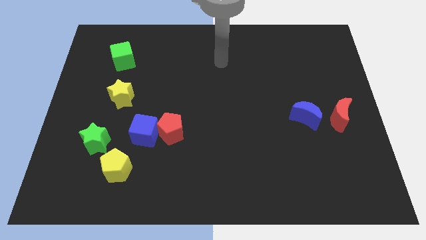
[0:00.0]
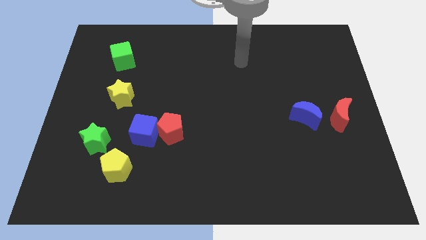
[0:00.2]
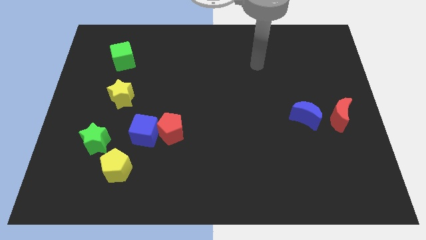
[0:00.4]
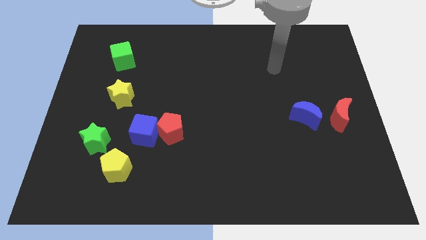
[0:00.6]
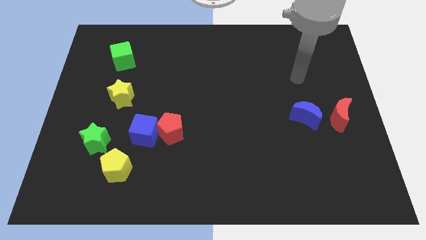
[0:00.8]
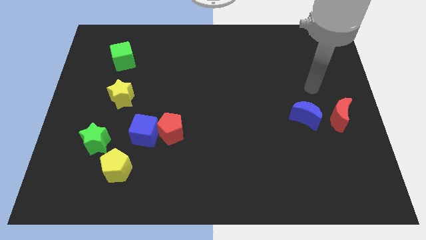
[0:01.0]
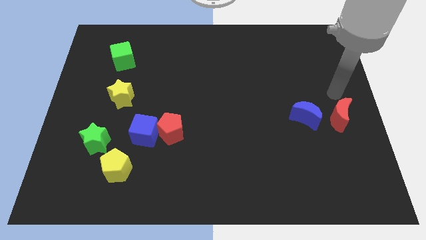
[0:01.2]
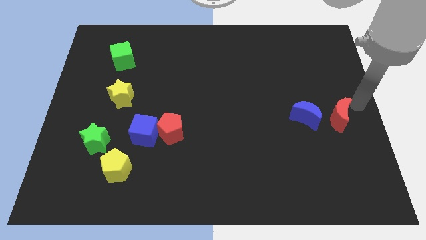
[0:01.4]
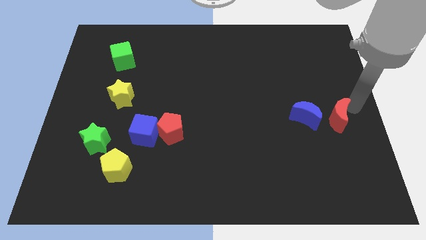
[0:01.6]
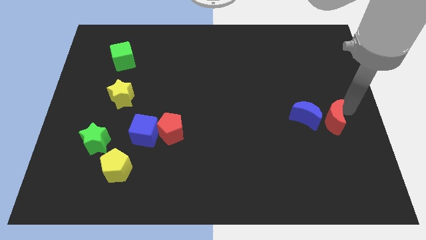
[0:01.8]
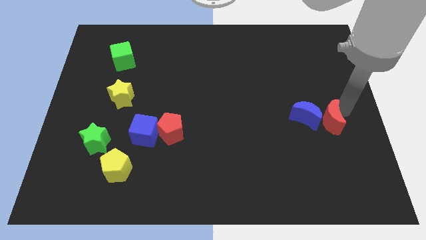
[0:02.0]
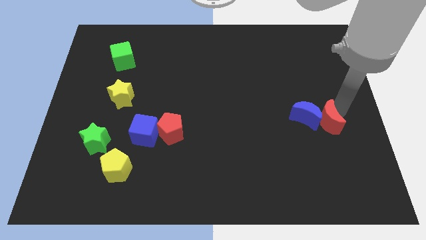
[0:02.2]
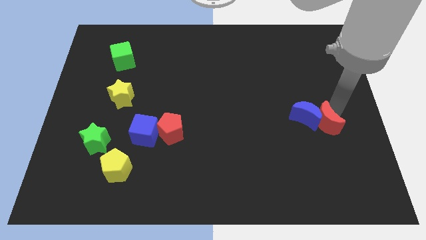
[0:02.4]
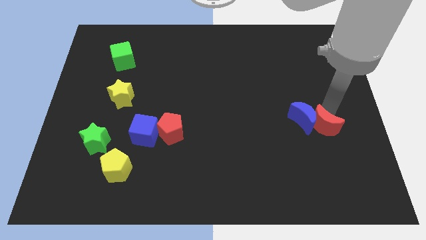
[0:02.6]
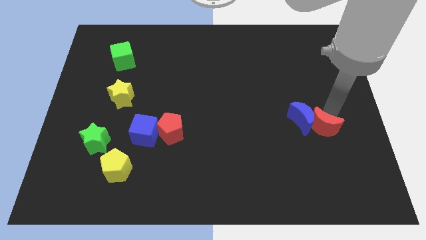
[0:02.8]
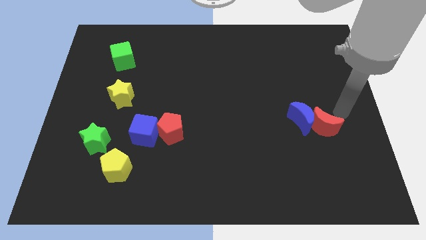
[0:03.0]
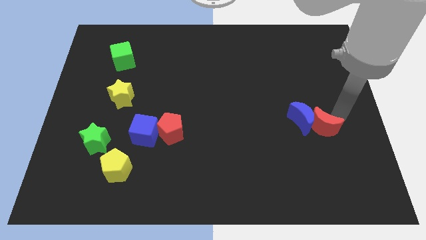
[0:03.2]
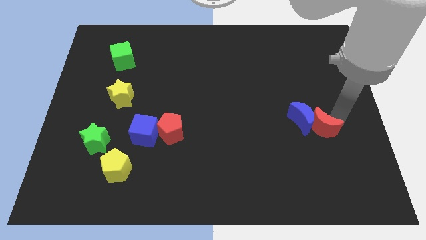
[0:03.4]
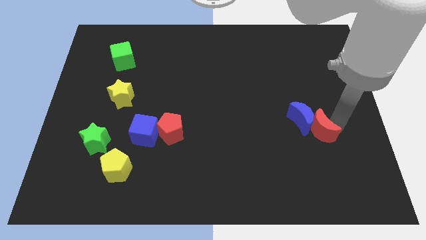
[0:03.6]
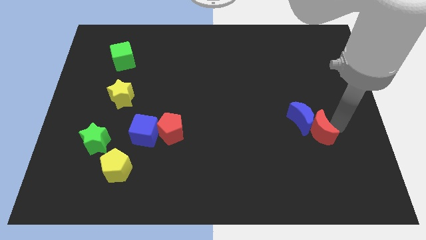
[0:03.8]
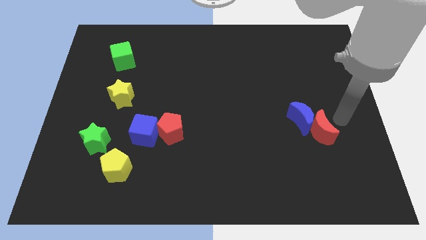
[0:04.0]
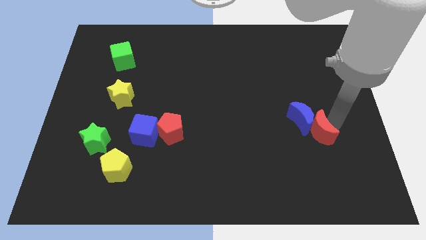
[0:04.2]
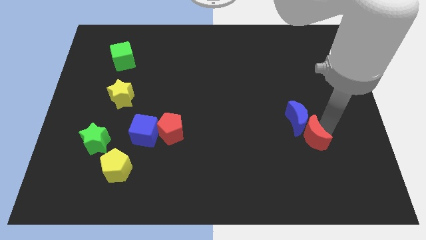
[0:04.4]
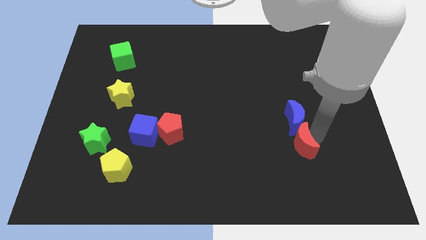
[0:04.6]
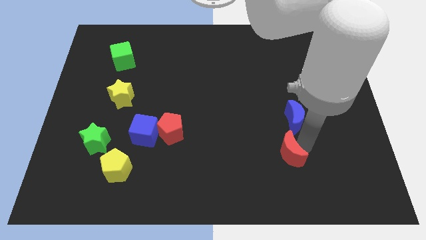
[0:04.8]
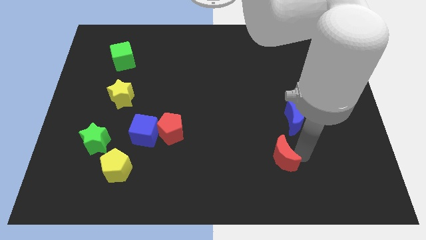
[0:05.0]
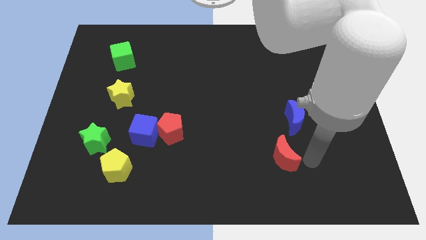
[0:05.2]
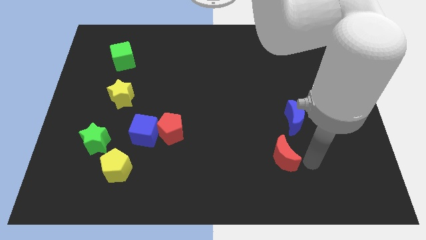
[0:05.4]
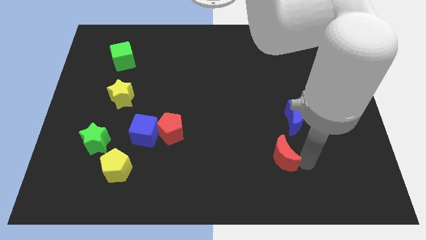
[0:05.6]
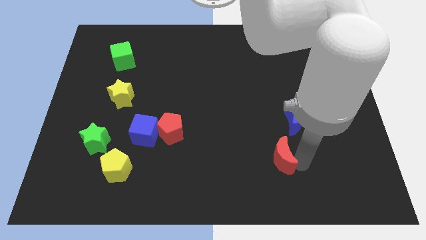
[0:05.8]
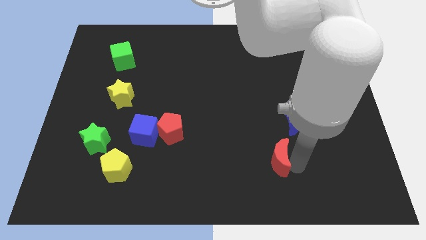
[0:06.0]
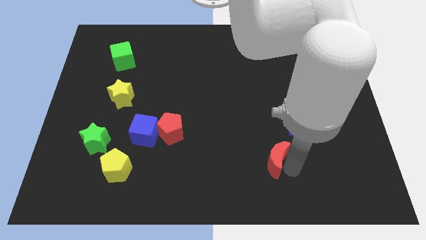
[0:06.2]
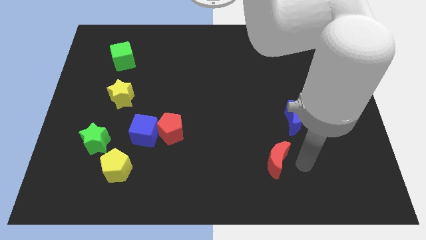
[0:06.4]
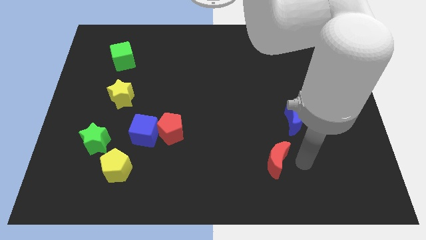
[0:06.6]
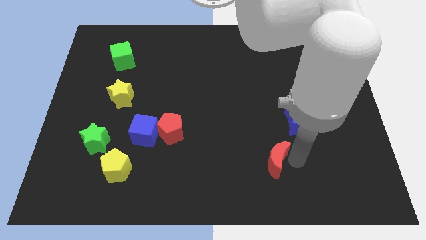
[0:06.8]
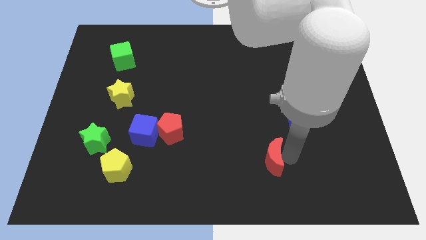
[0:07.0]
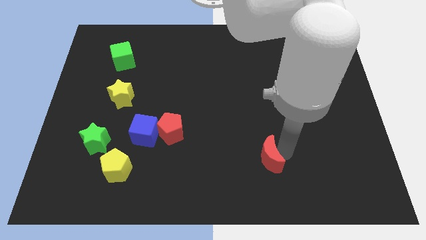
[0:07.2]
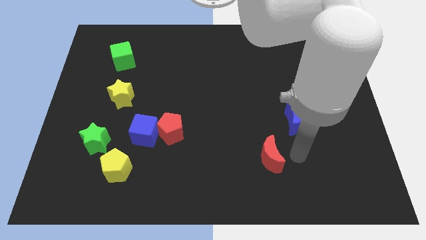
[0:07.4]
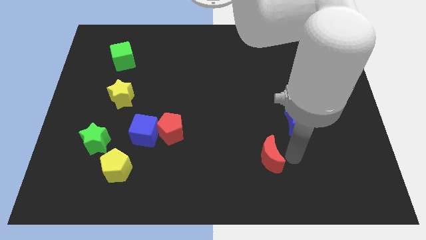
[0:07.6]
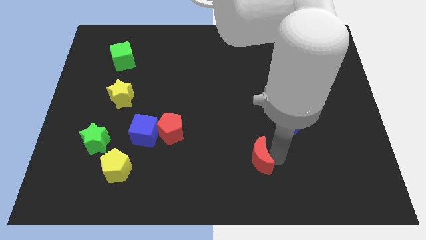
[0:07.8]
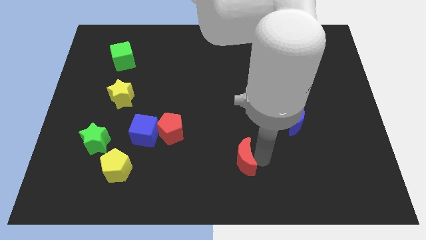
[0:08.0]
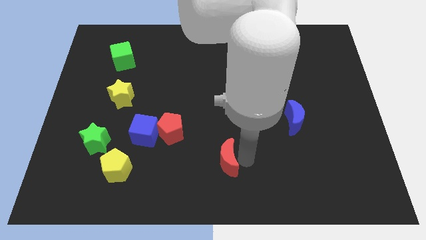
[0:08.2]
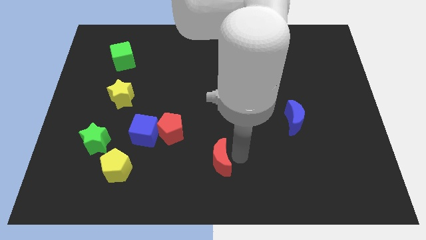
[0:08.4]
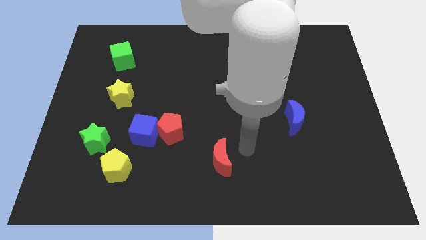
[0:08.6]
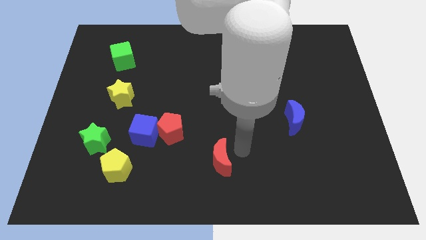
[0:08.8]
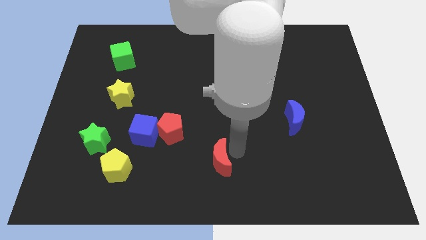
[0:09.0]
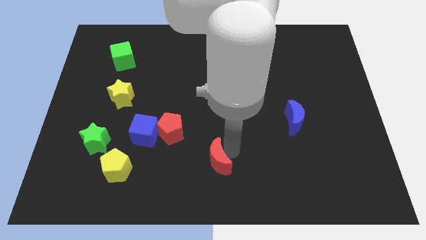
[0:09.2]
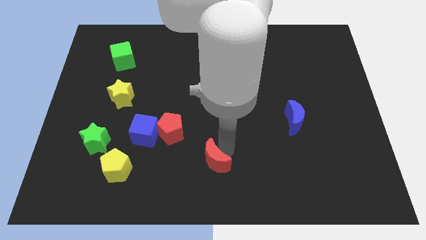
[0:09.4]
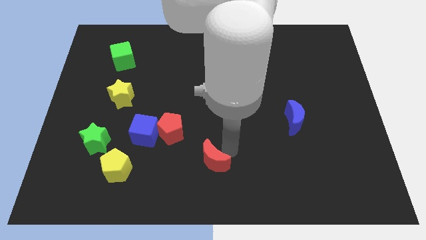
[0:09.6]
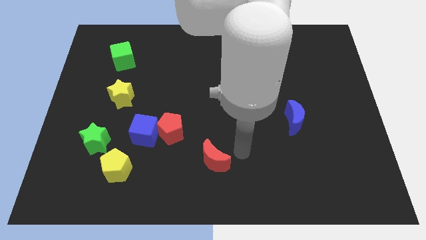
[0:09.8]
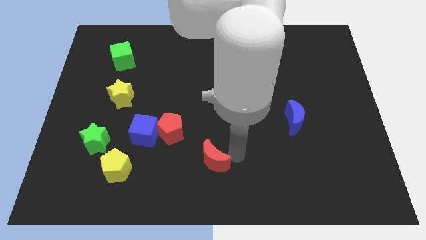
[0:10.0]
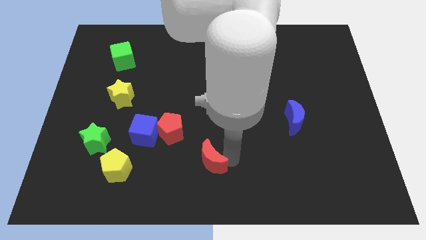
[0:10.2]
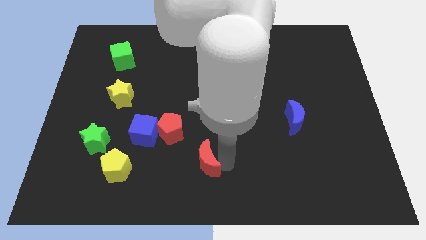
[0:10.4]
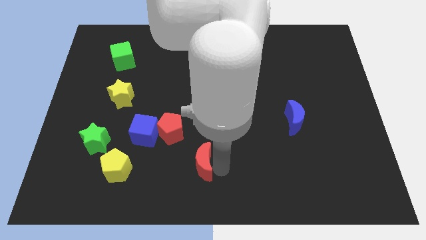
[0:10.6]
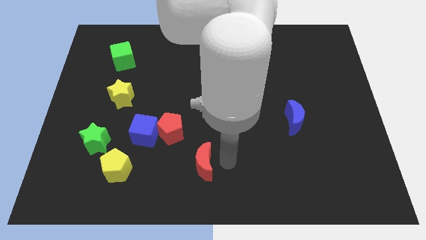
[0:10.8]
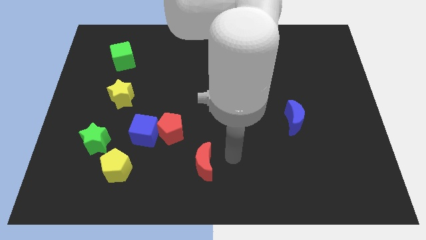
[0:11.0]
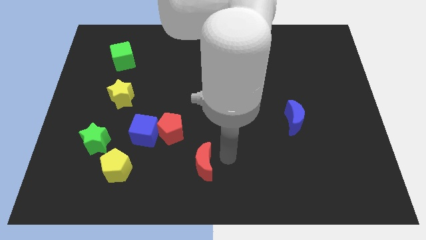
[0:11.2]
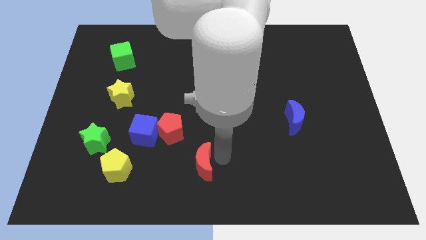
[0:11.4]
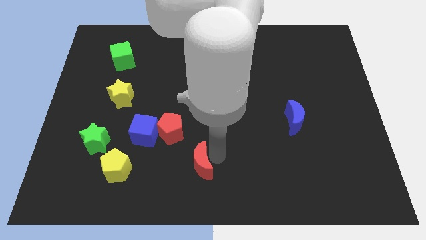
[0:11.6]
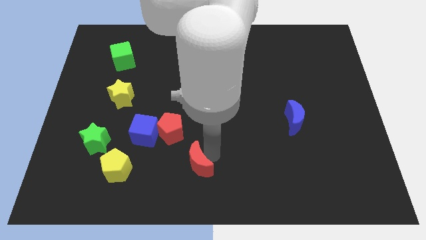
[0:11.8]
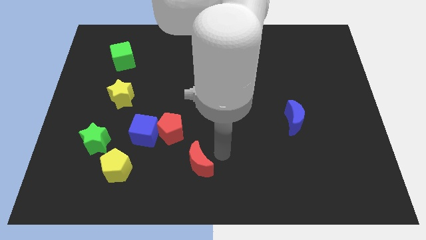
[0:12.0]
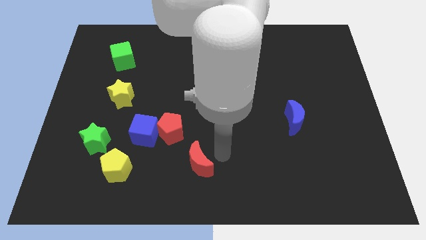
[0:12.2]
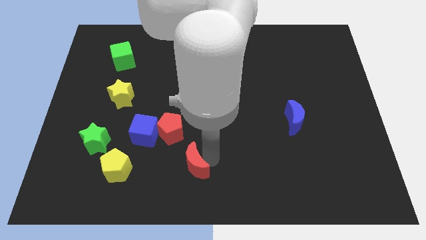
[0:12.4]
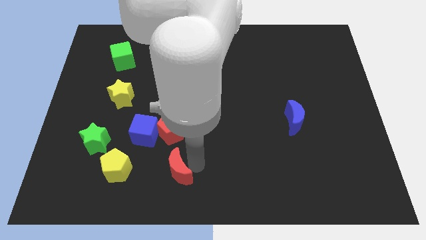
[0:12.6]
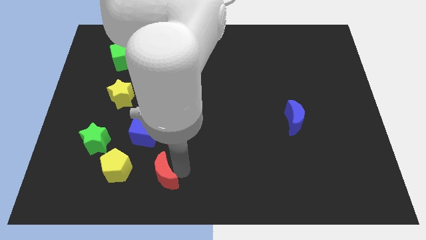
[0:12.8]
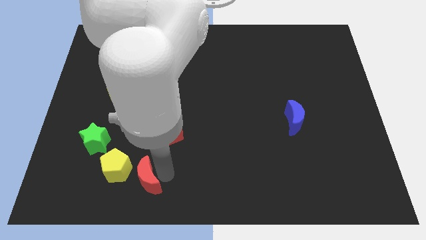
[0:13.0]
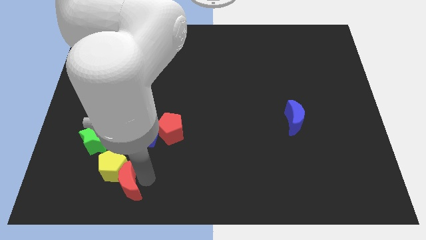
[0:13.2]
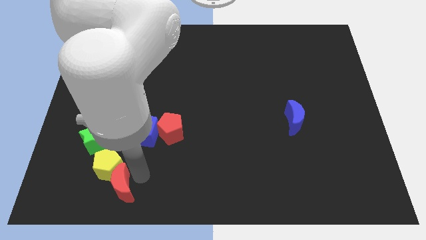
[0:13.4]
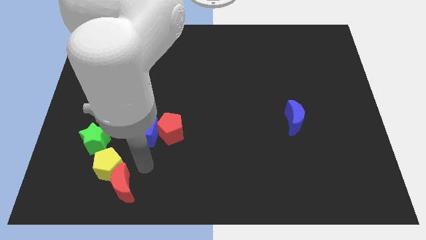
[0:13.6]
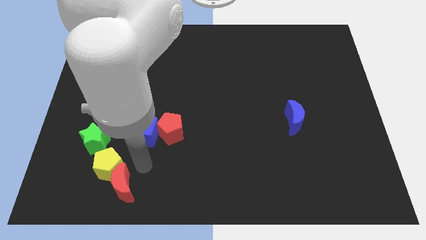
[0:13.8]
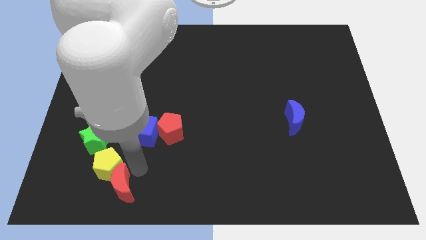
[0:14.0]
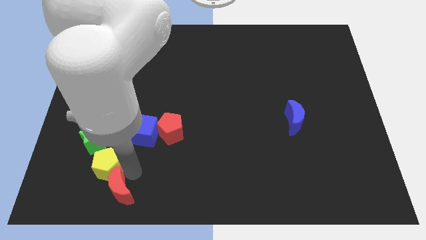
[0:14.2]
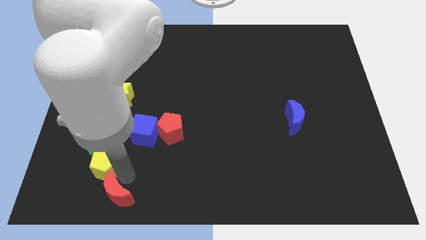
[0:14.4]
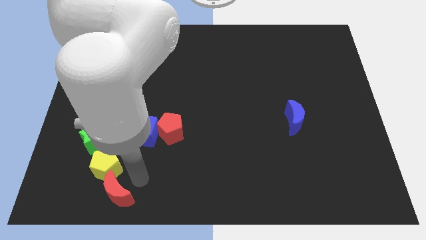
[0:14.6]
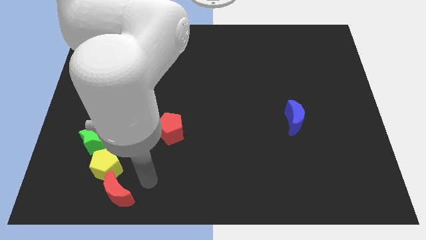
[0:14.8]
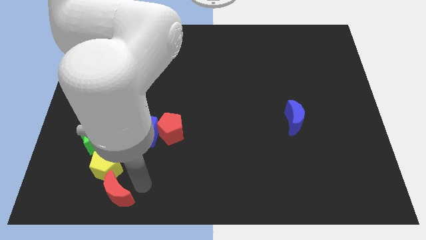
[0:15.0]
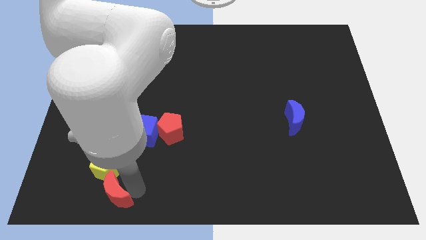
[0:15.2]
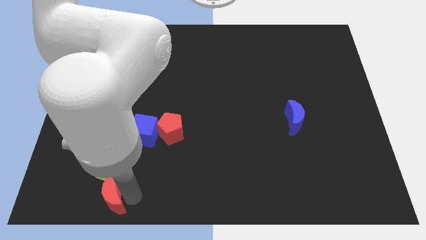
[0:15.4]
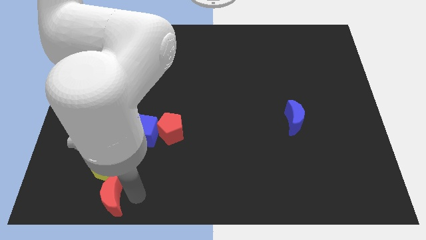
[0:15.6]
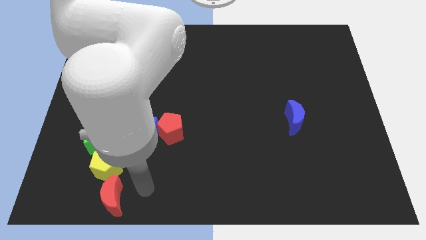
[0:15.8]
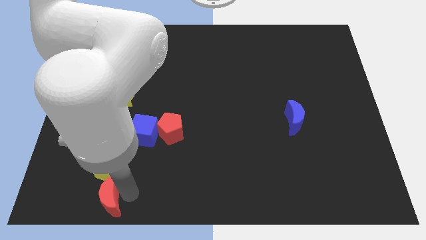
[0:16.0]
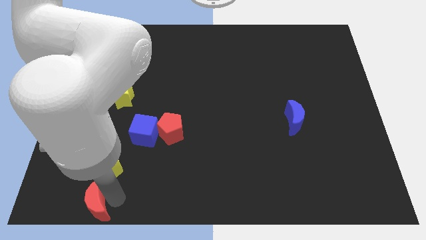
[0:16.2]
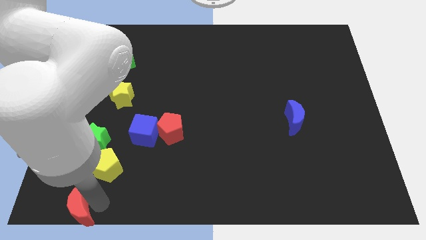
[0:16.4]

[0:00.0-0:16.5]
push the red moon to the lower left corner
